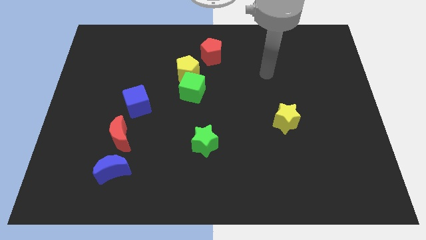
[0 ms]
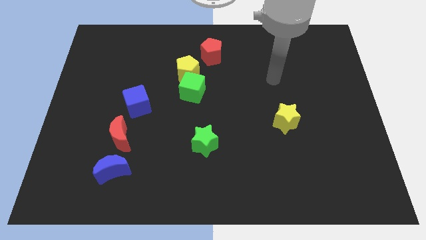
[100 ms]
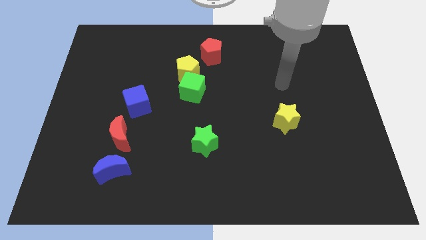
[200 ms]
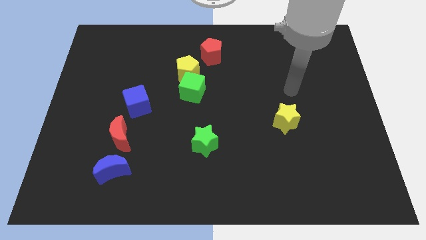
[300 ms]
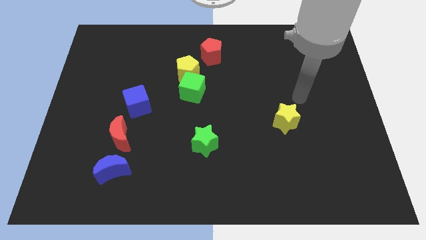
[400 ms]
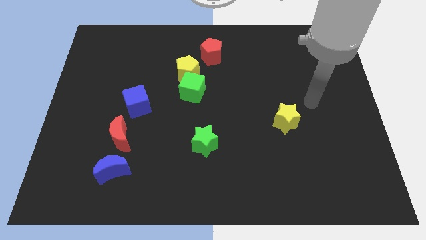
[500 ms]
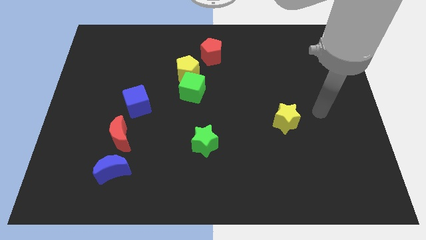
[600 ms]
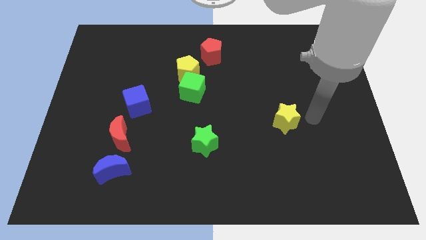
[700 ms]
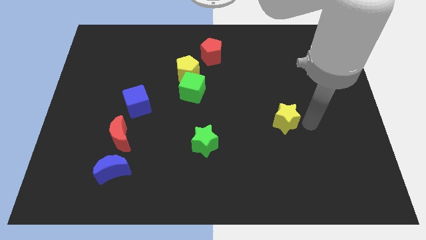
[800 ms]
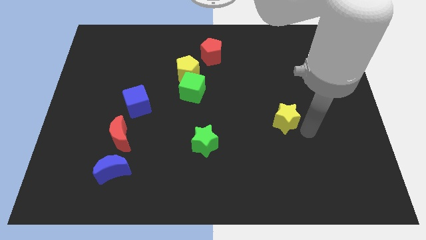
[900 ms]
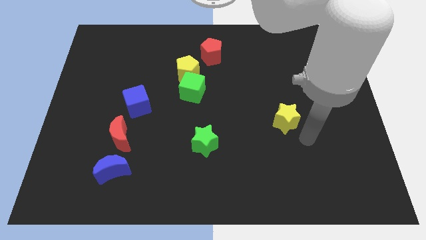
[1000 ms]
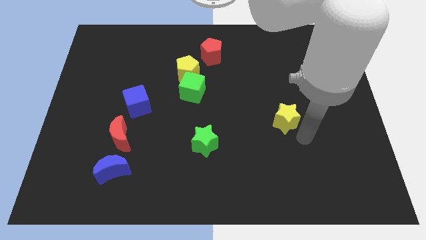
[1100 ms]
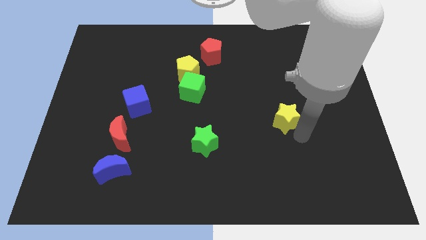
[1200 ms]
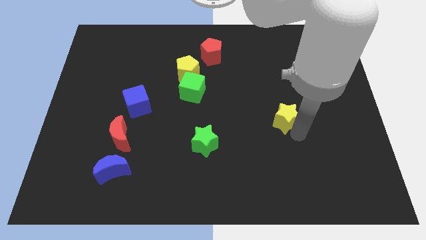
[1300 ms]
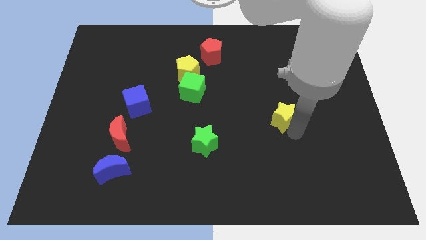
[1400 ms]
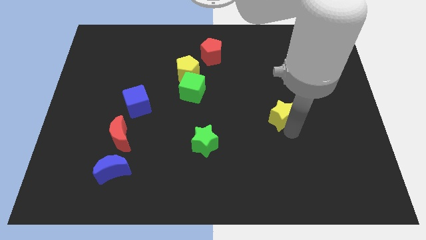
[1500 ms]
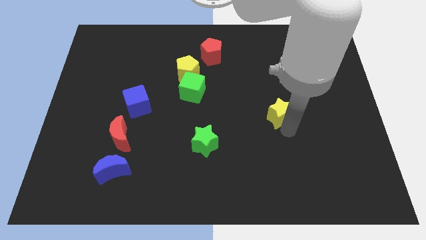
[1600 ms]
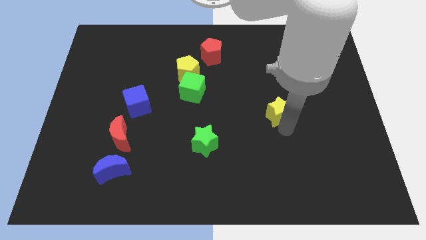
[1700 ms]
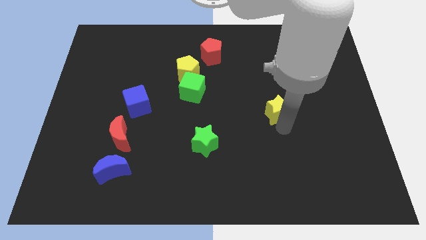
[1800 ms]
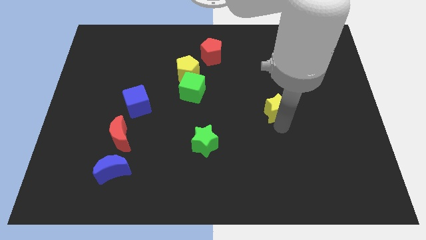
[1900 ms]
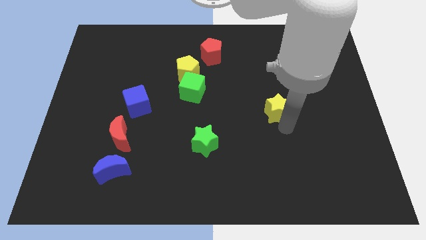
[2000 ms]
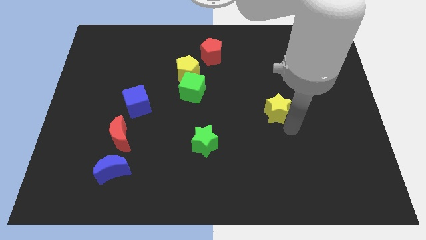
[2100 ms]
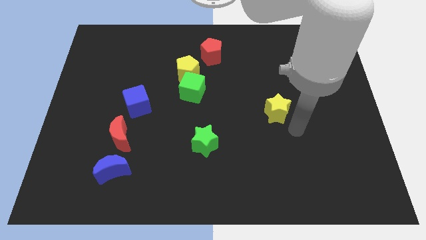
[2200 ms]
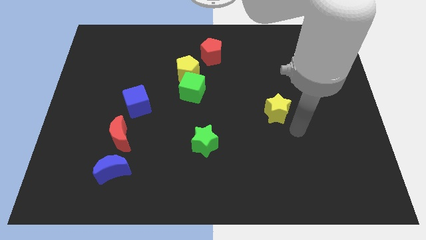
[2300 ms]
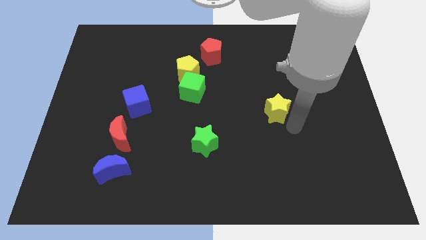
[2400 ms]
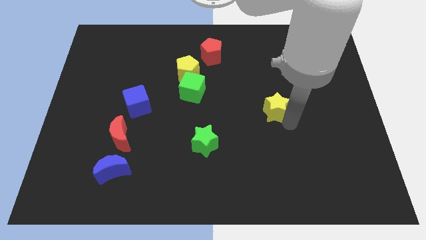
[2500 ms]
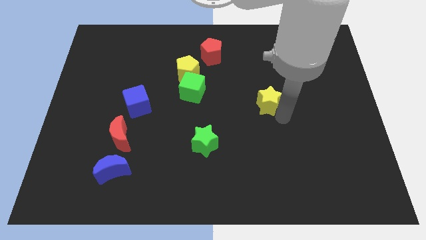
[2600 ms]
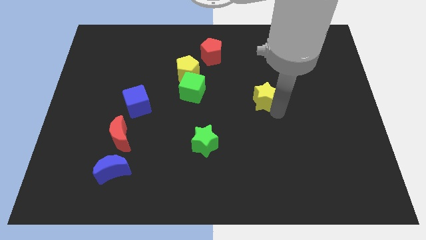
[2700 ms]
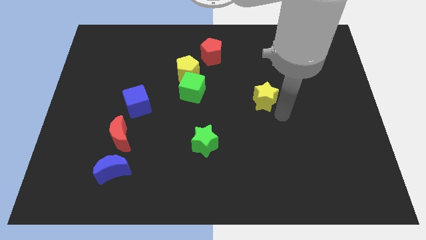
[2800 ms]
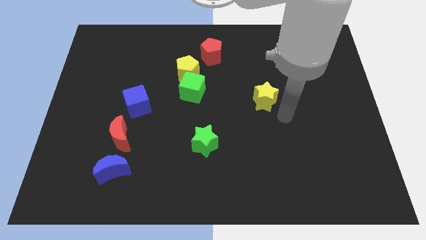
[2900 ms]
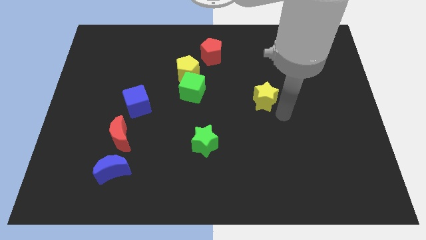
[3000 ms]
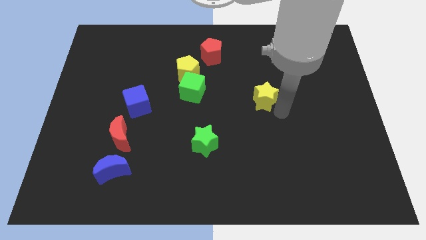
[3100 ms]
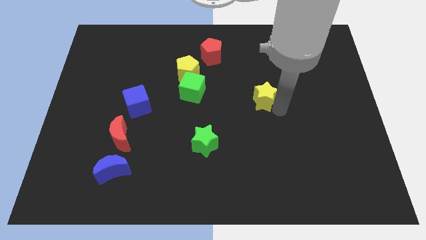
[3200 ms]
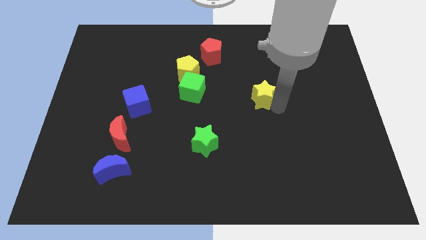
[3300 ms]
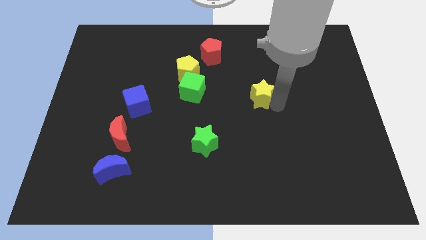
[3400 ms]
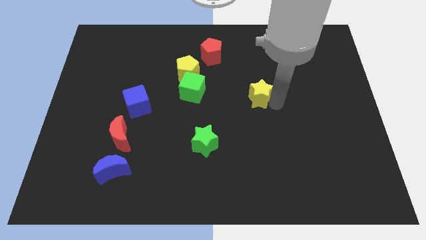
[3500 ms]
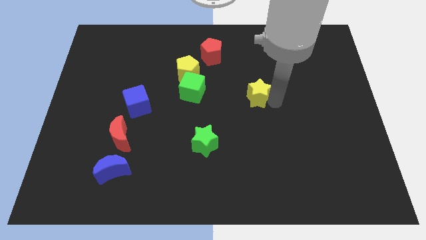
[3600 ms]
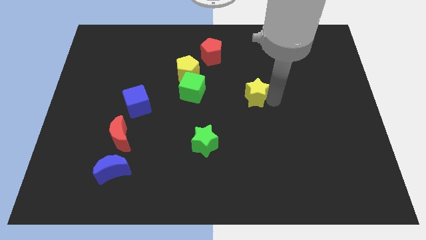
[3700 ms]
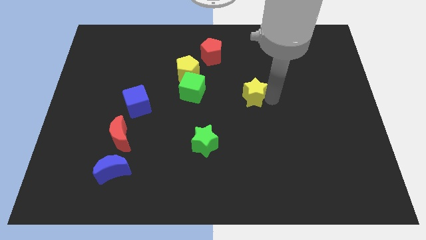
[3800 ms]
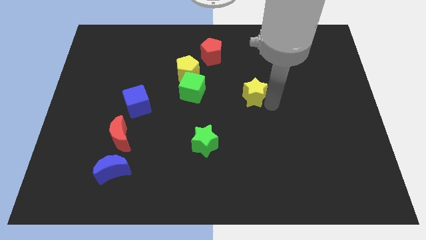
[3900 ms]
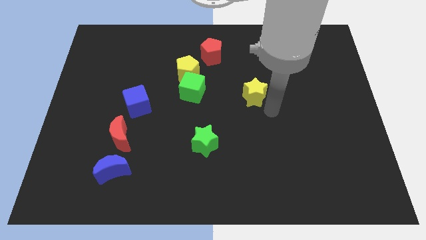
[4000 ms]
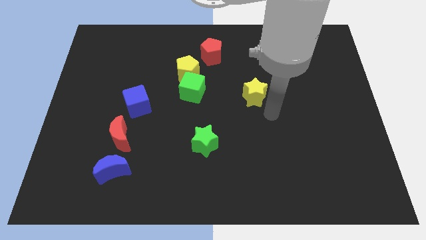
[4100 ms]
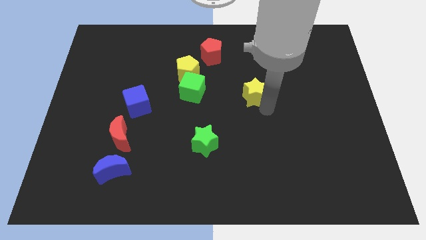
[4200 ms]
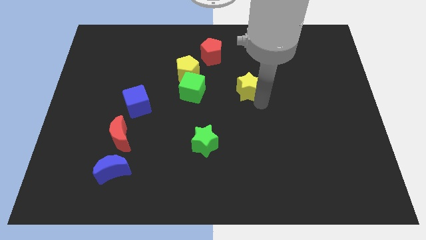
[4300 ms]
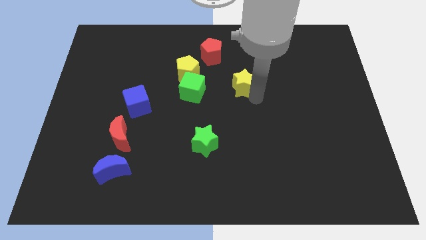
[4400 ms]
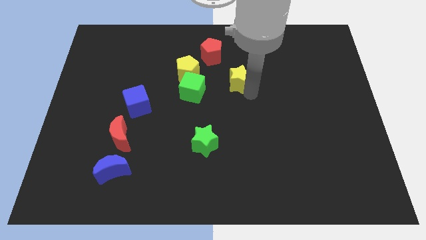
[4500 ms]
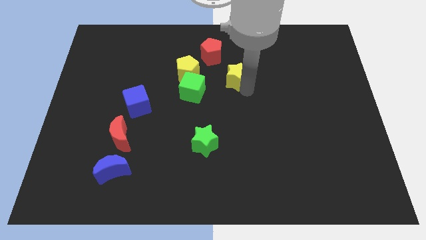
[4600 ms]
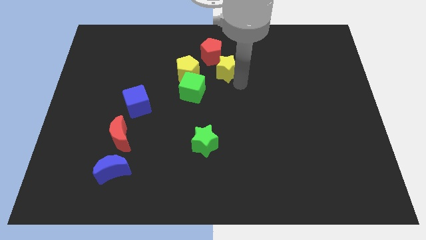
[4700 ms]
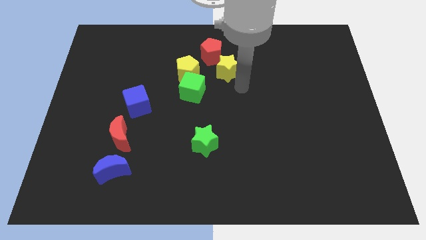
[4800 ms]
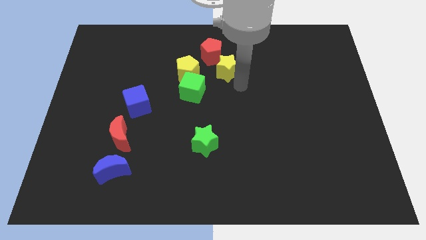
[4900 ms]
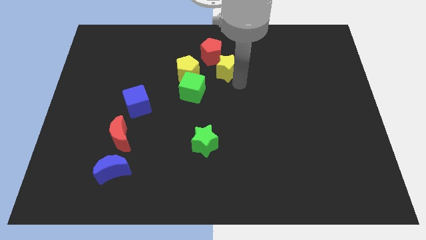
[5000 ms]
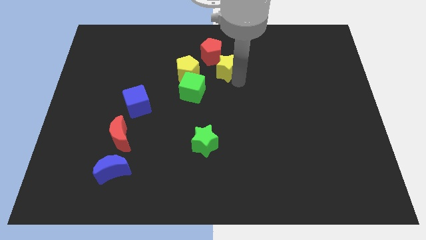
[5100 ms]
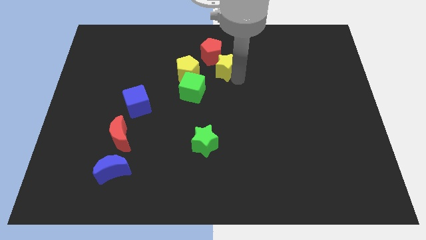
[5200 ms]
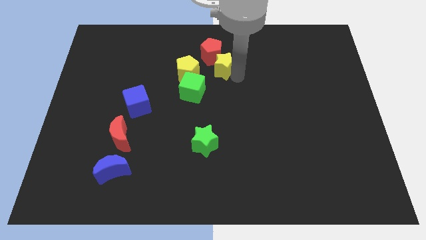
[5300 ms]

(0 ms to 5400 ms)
slide the yellow star to the red pentagon

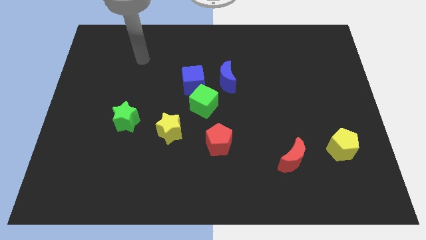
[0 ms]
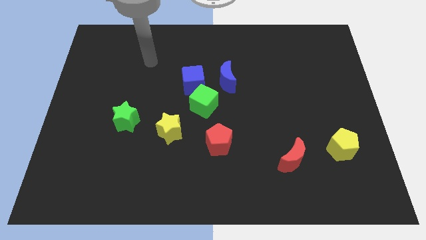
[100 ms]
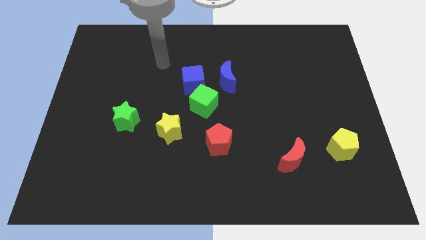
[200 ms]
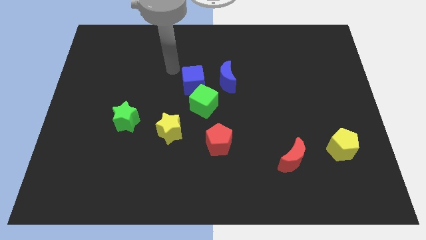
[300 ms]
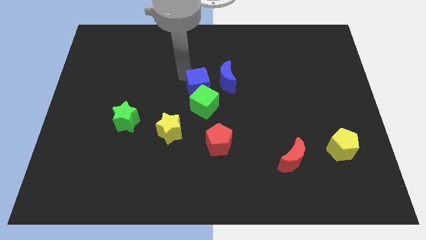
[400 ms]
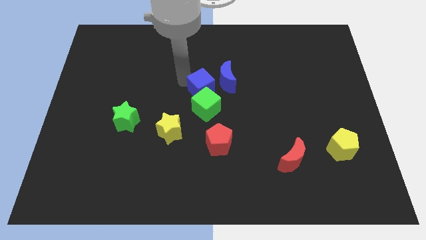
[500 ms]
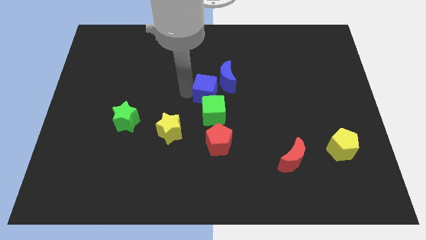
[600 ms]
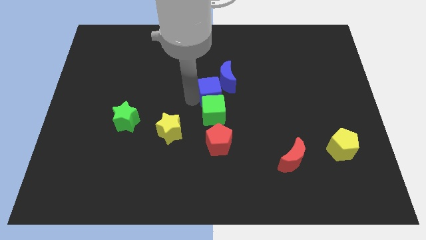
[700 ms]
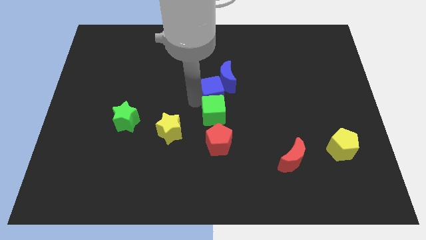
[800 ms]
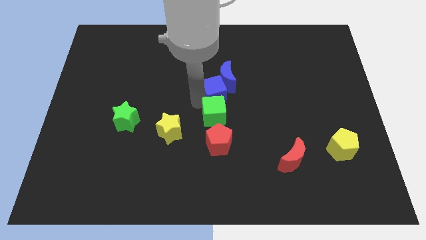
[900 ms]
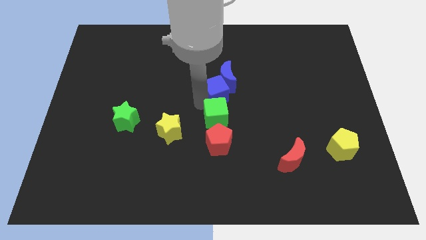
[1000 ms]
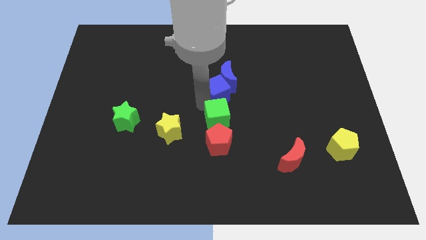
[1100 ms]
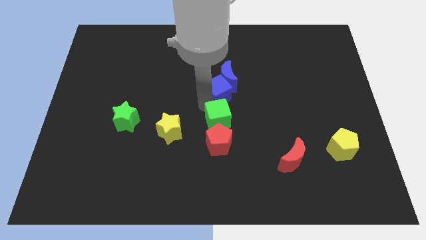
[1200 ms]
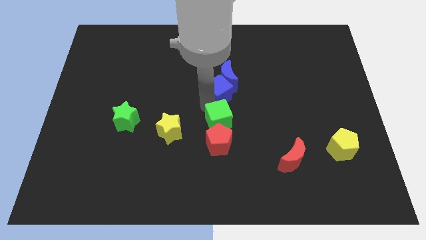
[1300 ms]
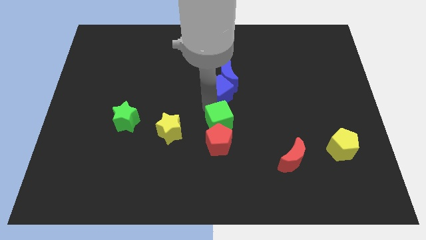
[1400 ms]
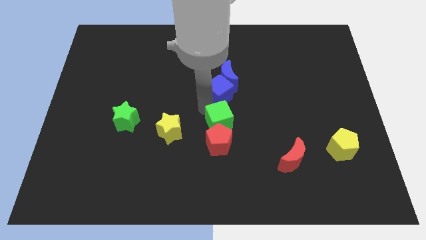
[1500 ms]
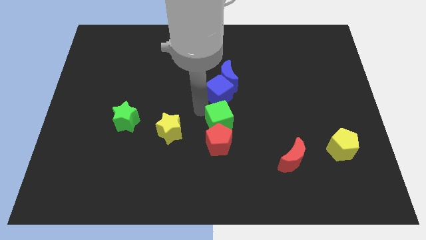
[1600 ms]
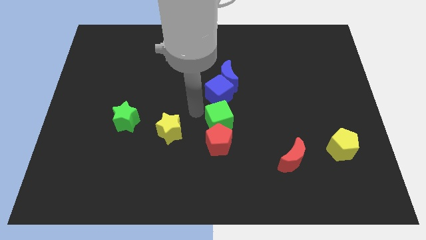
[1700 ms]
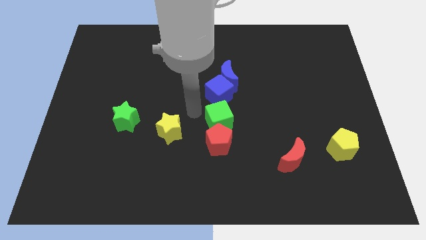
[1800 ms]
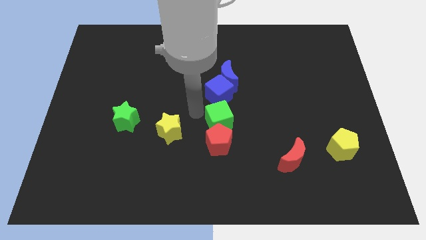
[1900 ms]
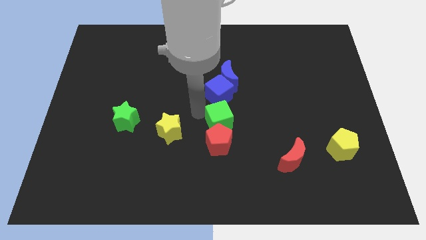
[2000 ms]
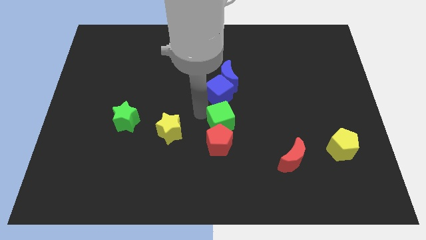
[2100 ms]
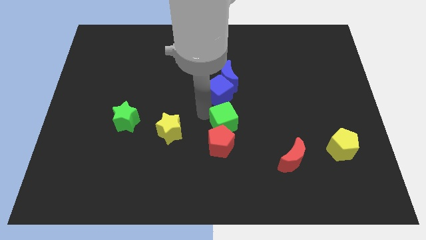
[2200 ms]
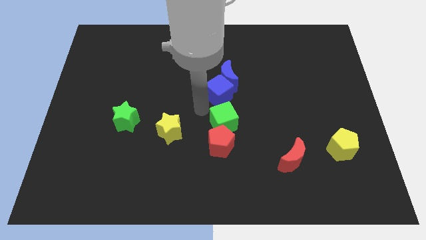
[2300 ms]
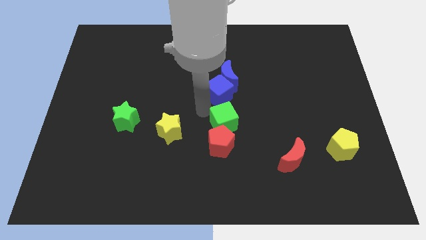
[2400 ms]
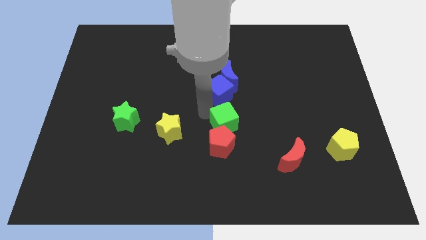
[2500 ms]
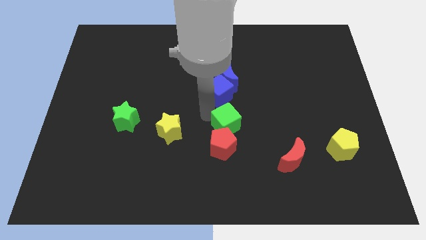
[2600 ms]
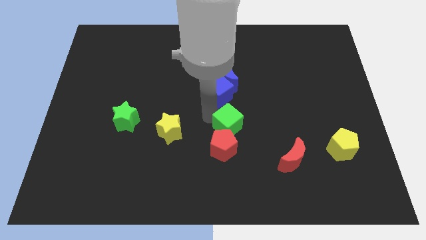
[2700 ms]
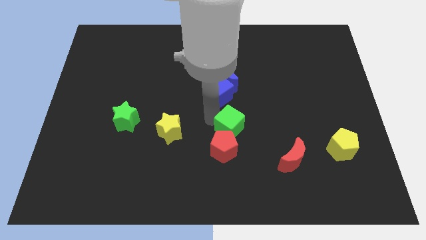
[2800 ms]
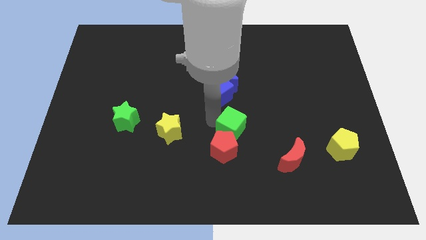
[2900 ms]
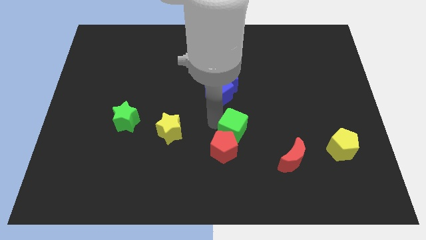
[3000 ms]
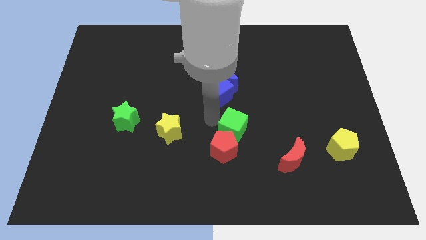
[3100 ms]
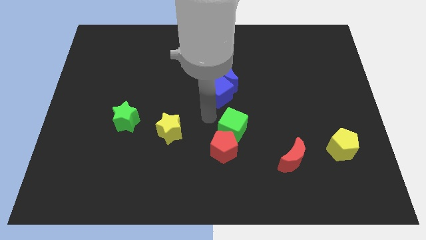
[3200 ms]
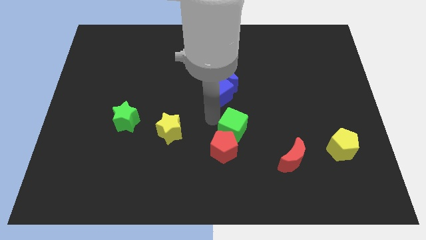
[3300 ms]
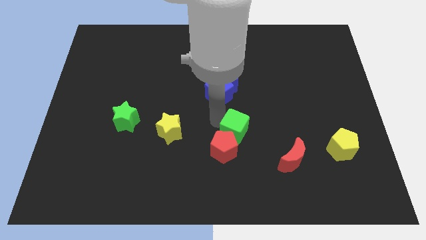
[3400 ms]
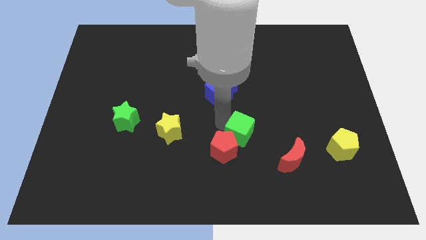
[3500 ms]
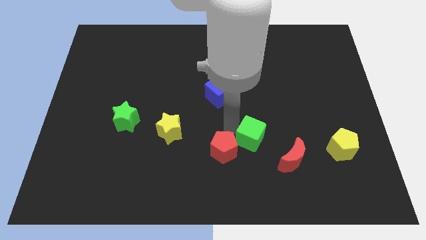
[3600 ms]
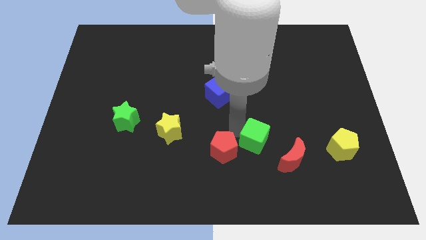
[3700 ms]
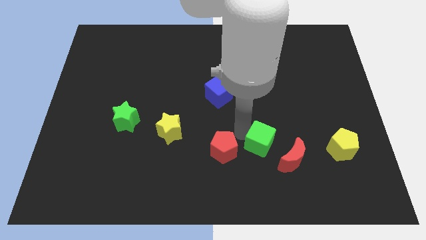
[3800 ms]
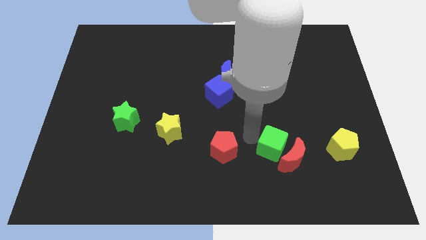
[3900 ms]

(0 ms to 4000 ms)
put the green cube close to the red moon
